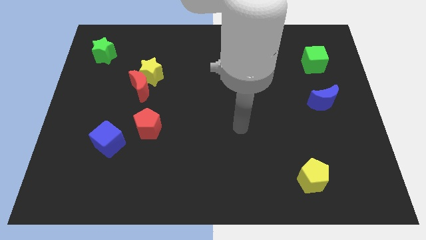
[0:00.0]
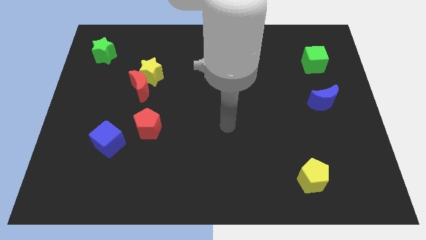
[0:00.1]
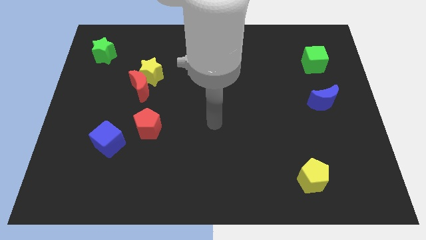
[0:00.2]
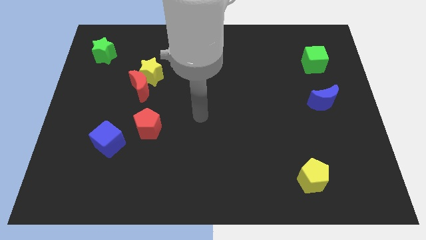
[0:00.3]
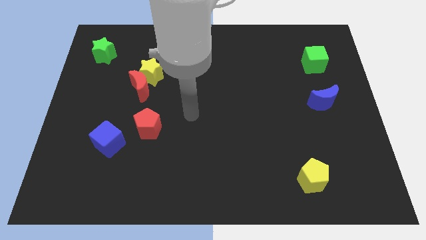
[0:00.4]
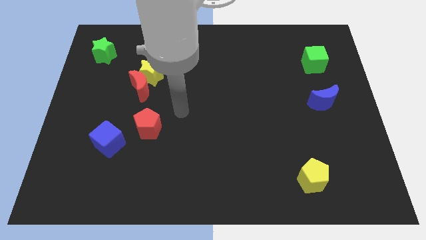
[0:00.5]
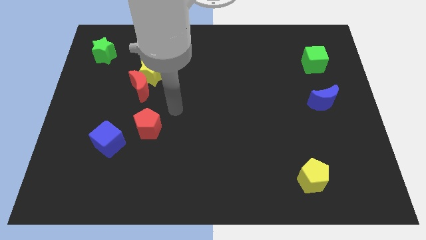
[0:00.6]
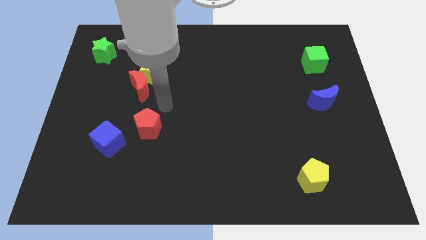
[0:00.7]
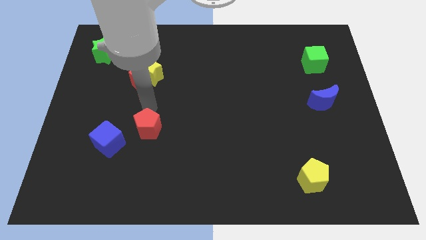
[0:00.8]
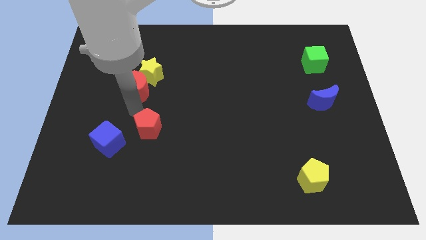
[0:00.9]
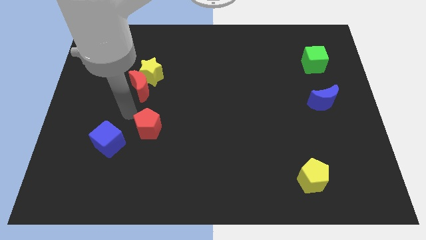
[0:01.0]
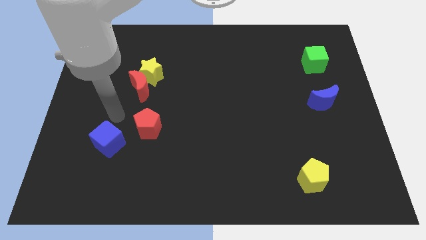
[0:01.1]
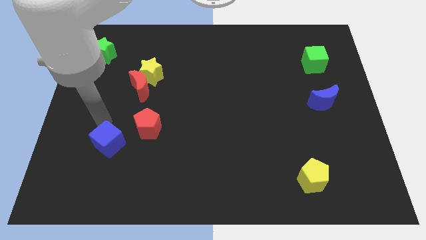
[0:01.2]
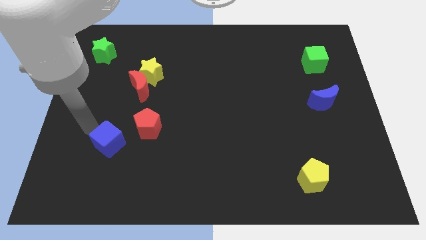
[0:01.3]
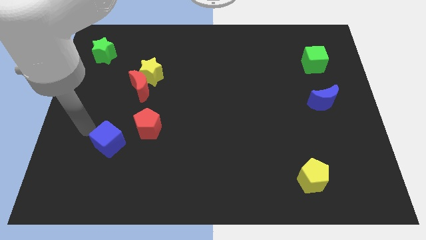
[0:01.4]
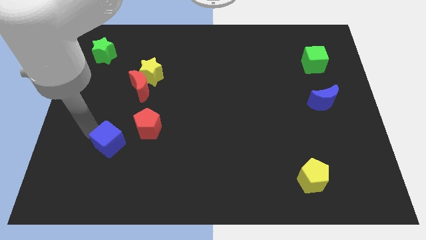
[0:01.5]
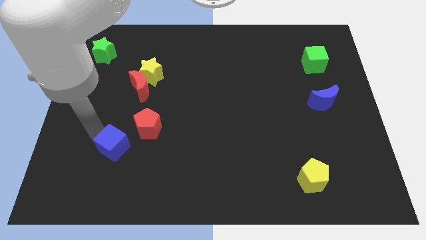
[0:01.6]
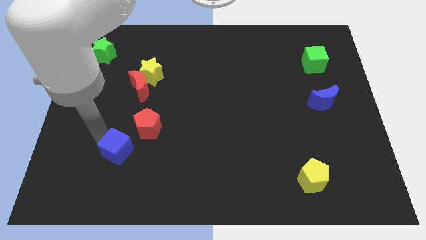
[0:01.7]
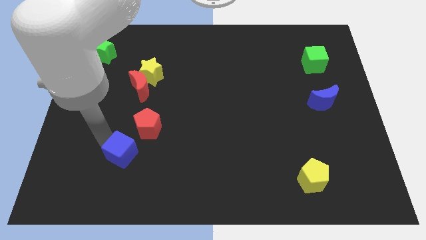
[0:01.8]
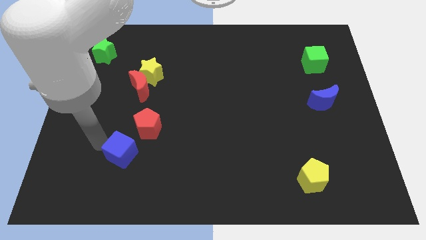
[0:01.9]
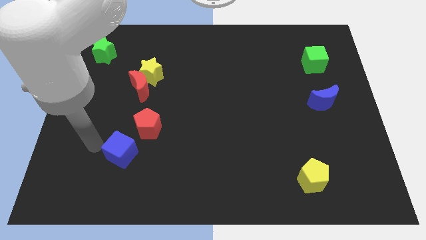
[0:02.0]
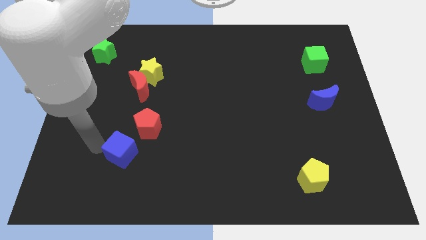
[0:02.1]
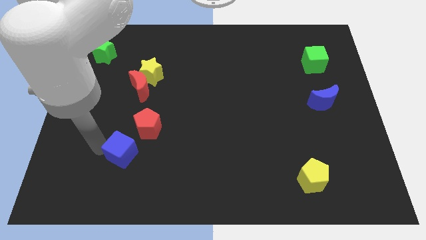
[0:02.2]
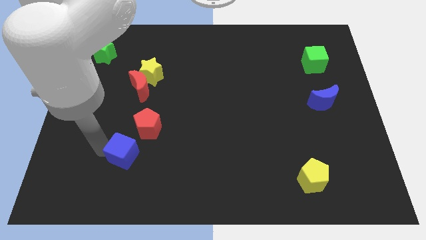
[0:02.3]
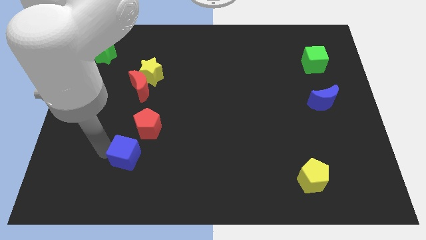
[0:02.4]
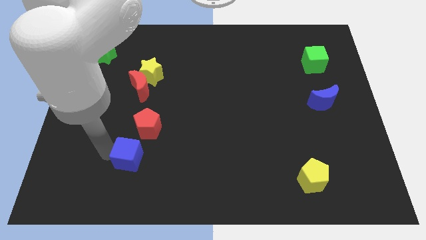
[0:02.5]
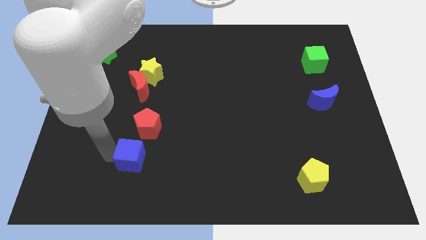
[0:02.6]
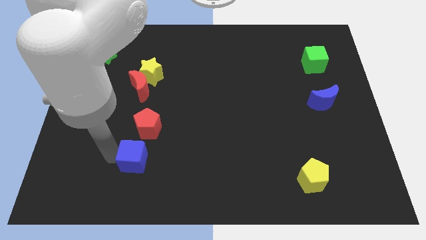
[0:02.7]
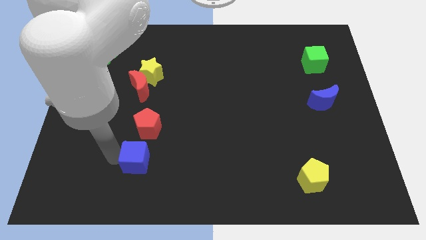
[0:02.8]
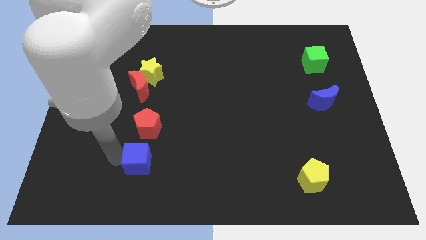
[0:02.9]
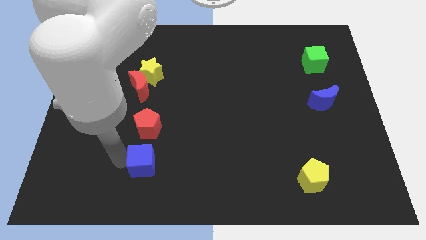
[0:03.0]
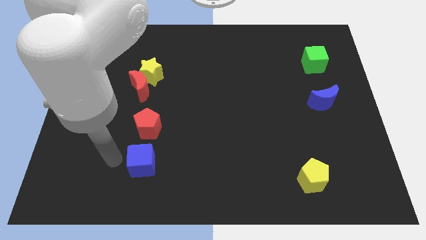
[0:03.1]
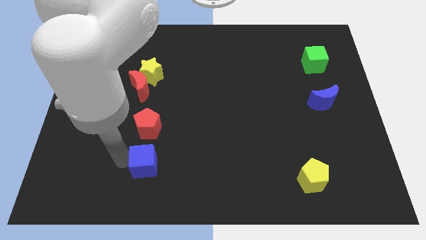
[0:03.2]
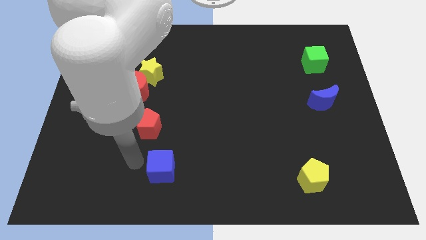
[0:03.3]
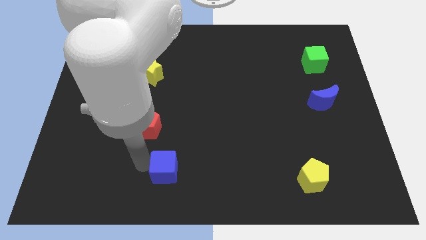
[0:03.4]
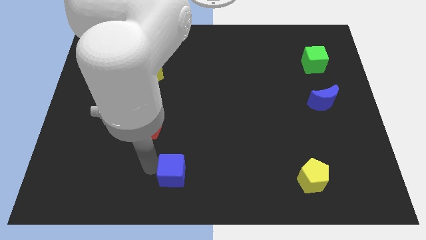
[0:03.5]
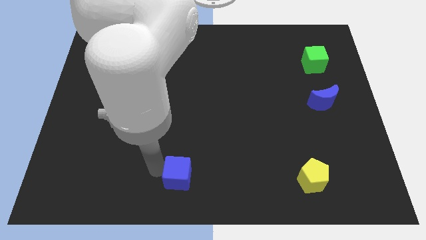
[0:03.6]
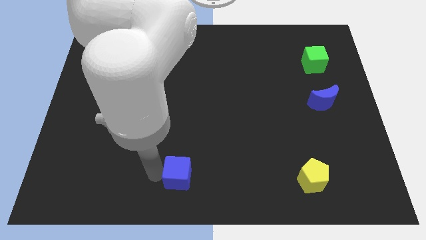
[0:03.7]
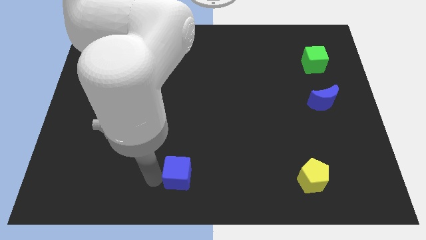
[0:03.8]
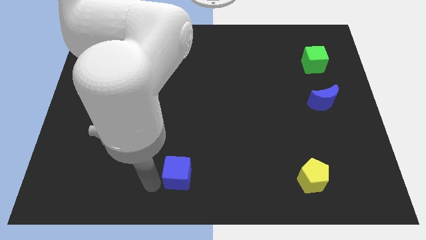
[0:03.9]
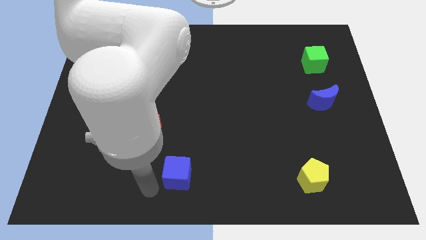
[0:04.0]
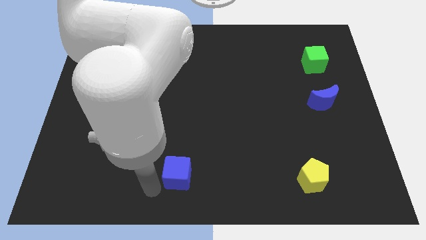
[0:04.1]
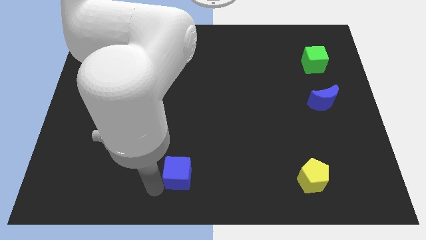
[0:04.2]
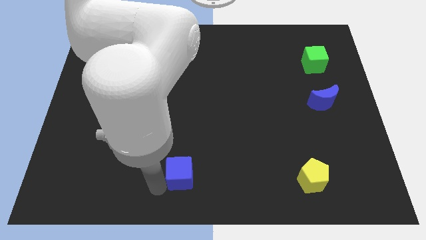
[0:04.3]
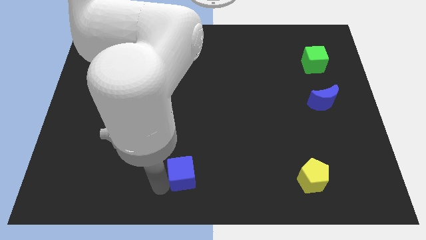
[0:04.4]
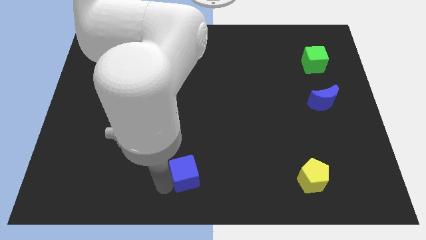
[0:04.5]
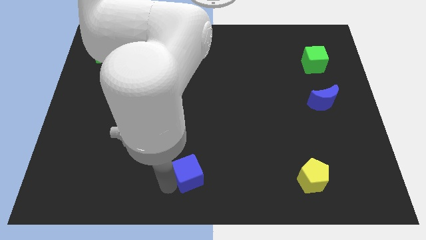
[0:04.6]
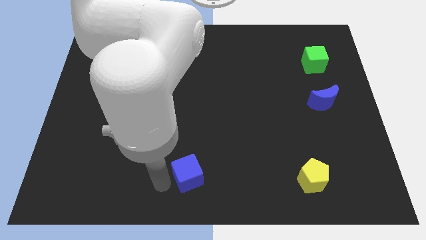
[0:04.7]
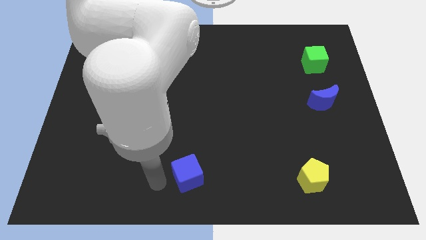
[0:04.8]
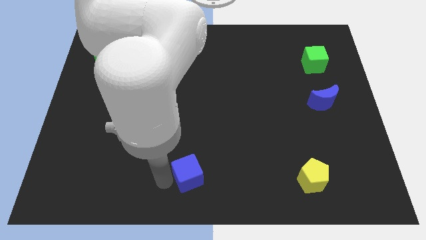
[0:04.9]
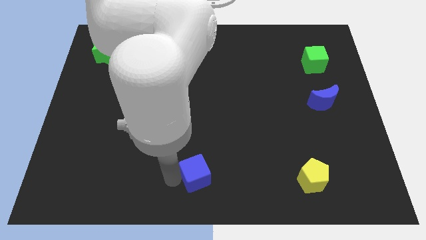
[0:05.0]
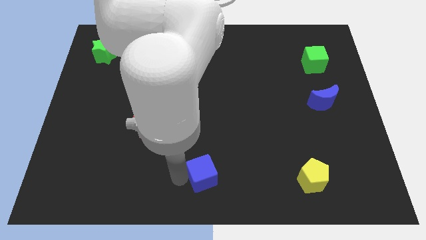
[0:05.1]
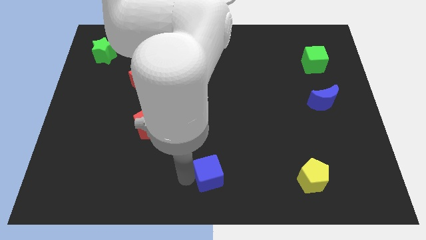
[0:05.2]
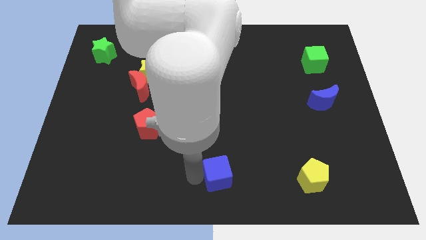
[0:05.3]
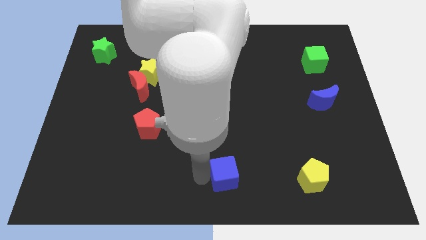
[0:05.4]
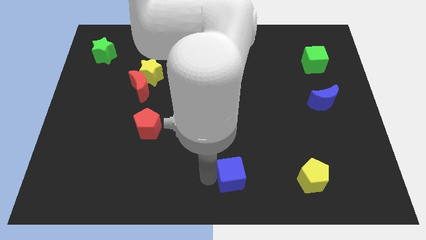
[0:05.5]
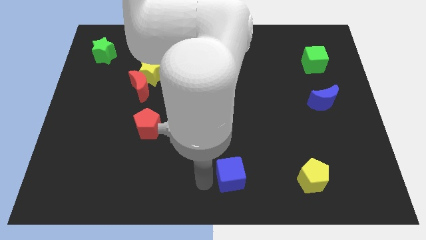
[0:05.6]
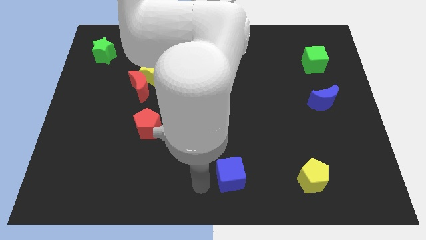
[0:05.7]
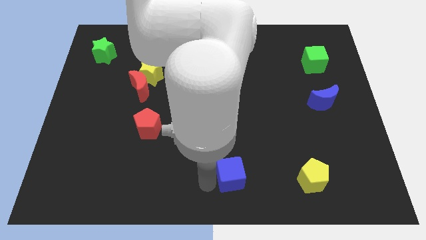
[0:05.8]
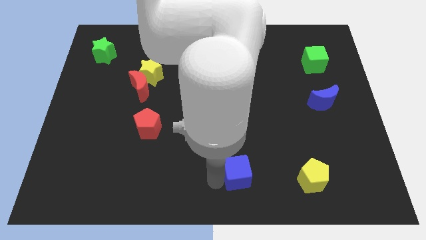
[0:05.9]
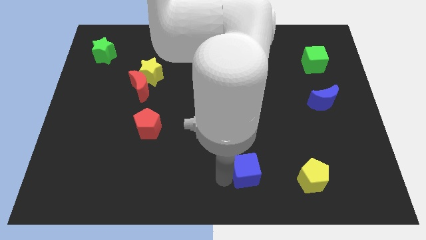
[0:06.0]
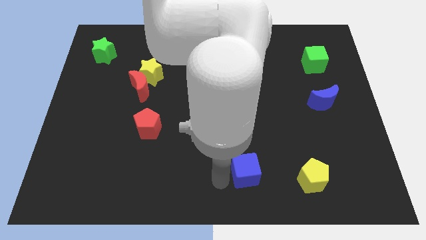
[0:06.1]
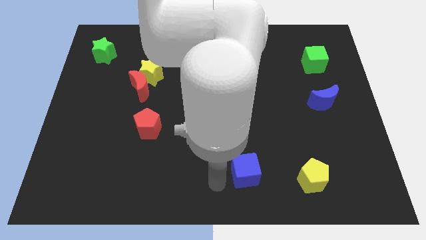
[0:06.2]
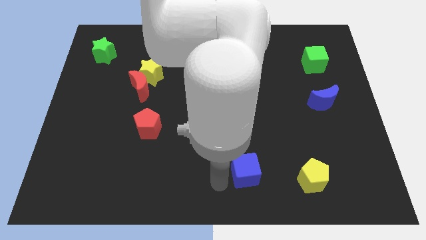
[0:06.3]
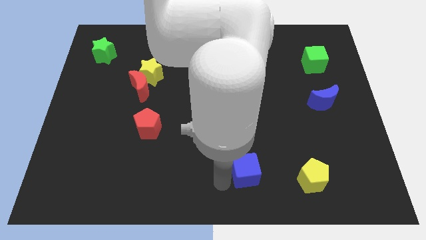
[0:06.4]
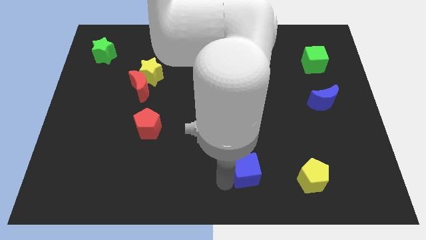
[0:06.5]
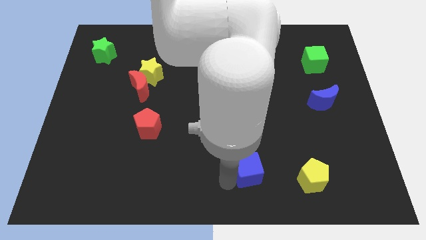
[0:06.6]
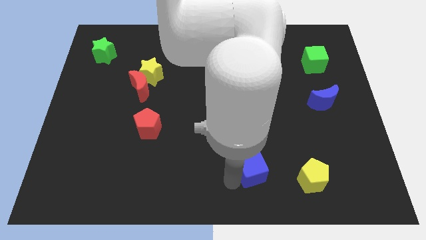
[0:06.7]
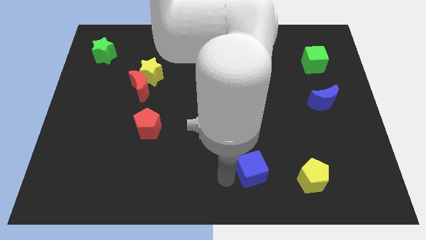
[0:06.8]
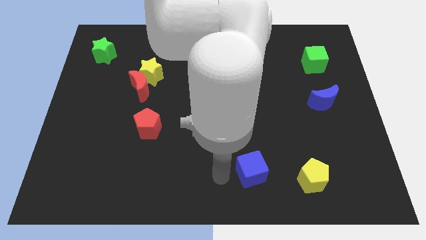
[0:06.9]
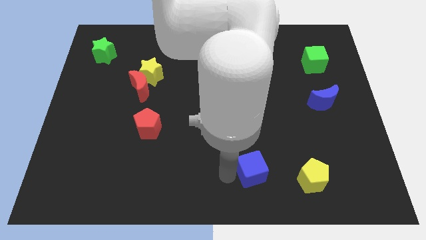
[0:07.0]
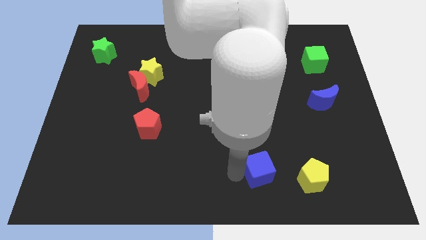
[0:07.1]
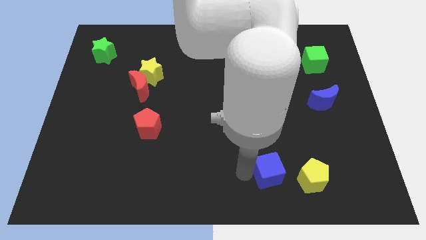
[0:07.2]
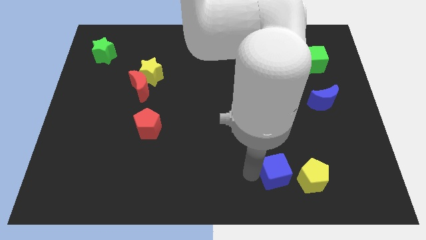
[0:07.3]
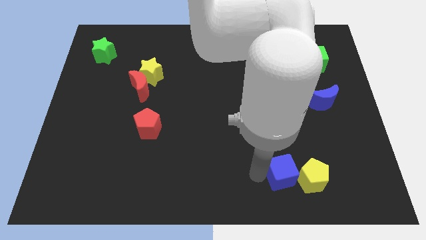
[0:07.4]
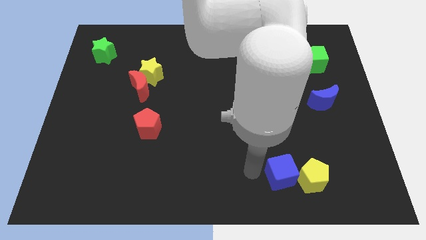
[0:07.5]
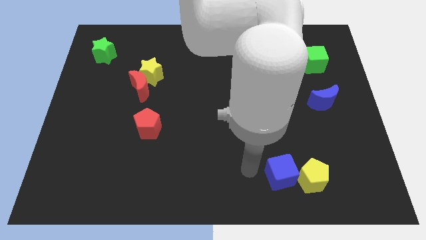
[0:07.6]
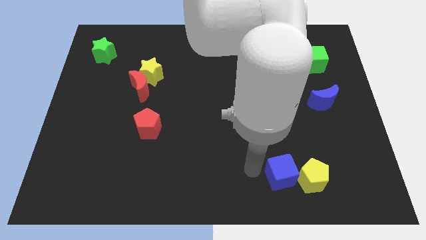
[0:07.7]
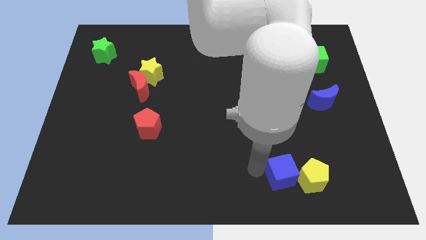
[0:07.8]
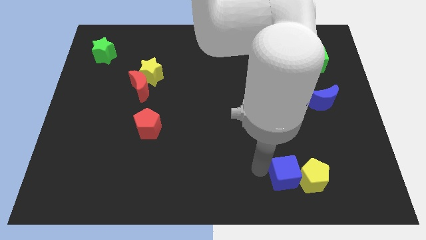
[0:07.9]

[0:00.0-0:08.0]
put the blue cube to the yellow pentagon
